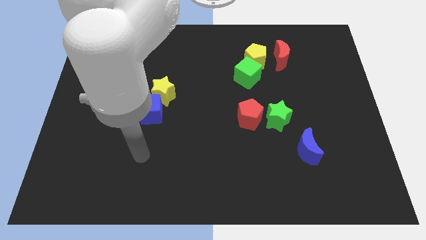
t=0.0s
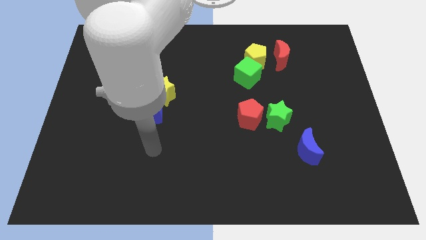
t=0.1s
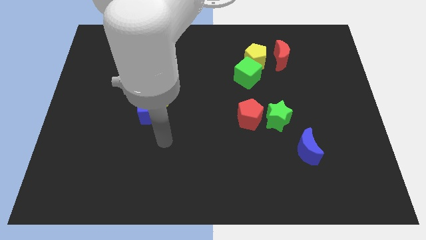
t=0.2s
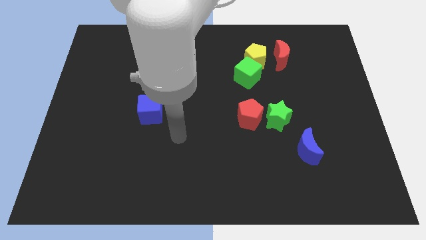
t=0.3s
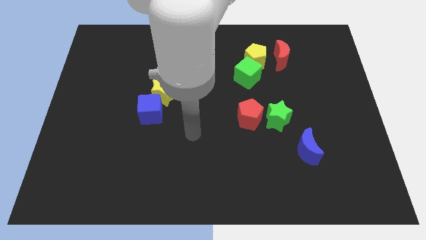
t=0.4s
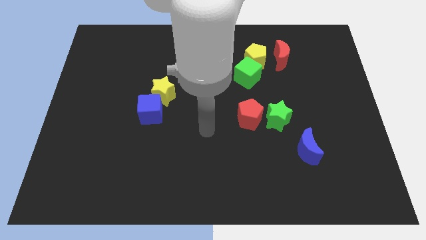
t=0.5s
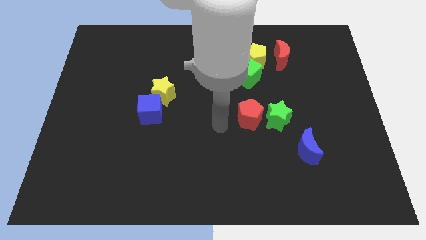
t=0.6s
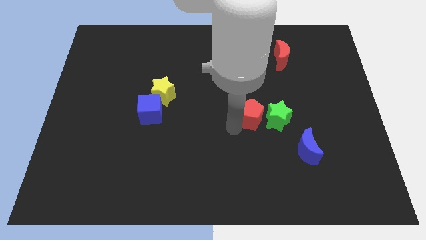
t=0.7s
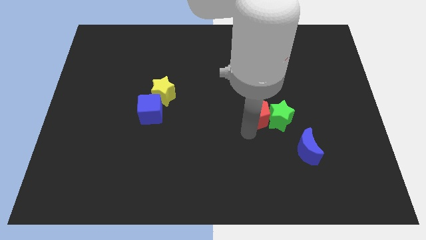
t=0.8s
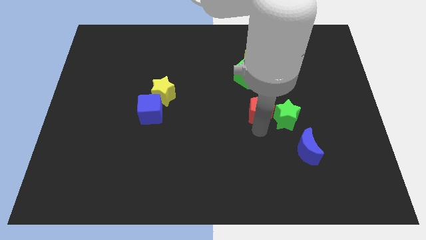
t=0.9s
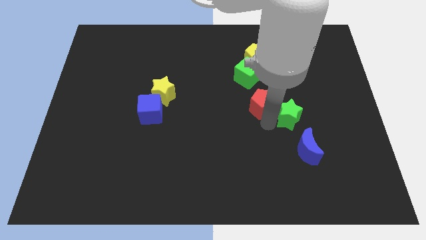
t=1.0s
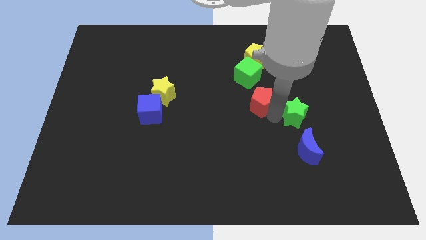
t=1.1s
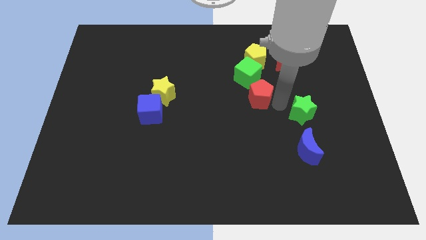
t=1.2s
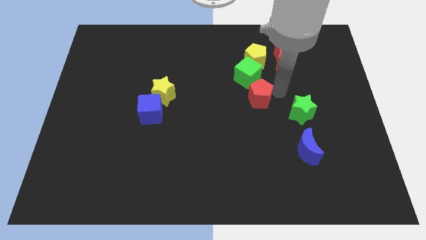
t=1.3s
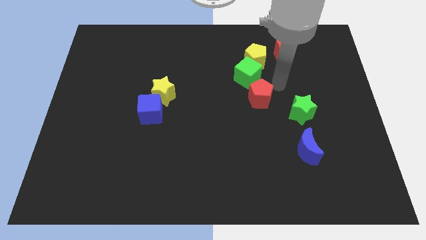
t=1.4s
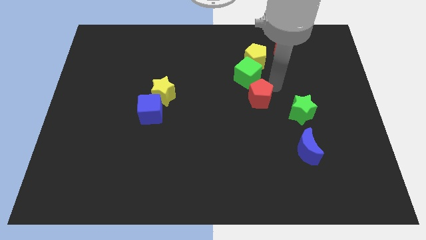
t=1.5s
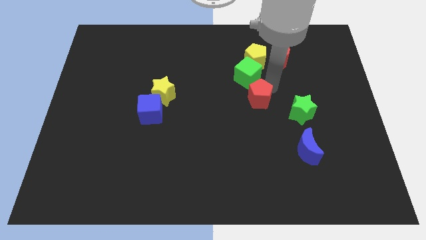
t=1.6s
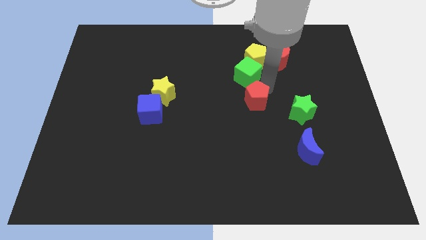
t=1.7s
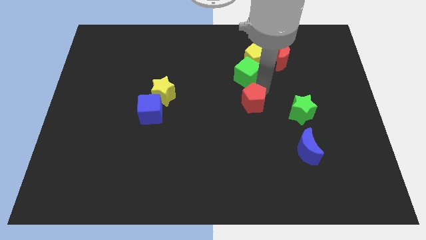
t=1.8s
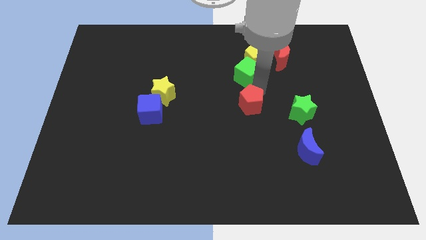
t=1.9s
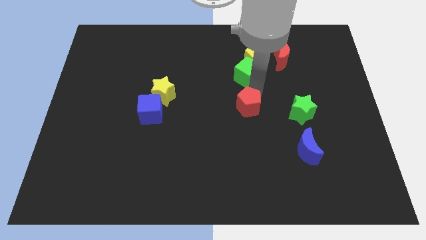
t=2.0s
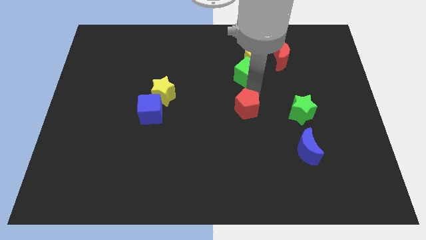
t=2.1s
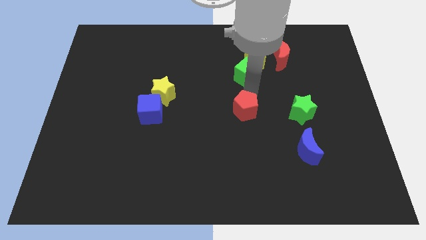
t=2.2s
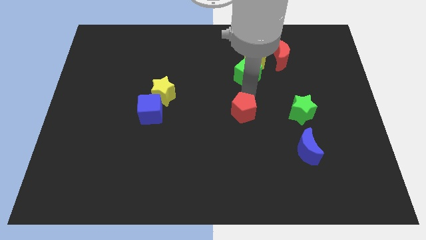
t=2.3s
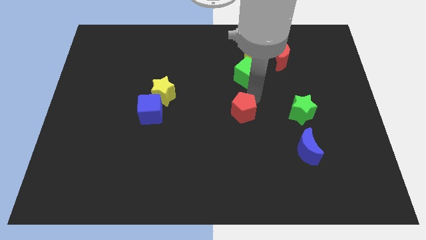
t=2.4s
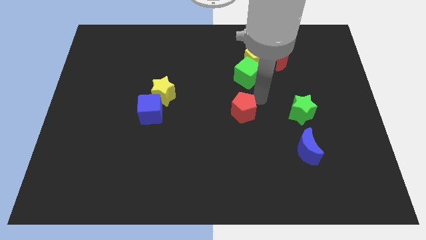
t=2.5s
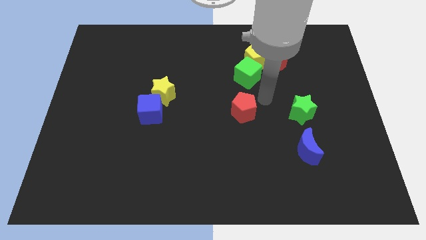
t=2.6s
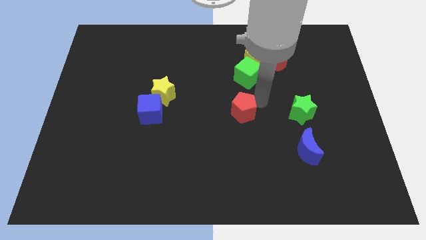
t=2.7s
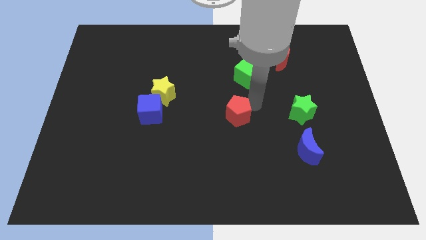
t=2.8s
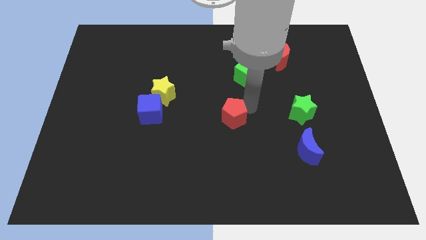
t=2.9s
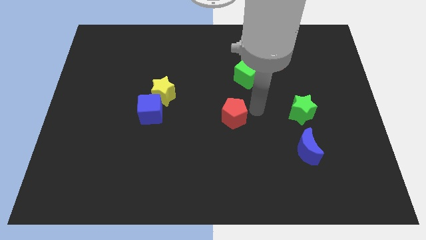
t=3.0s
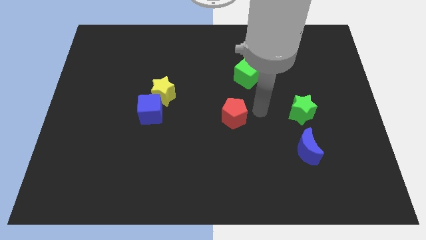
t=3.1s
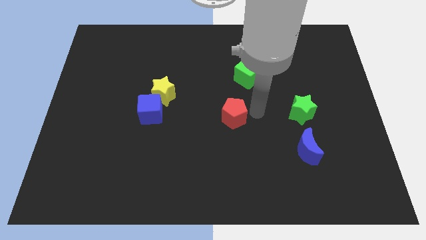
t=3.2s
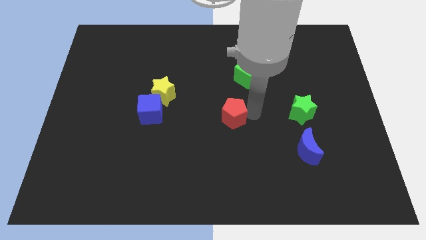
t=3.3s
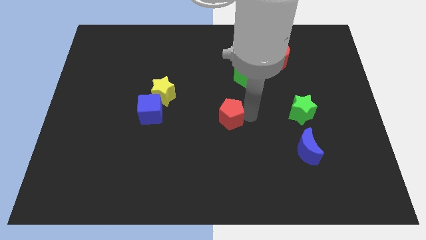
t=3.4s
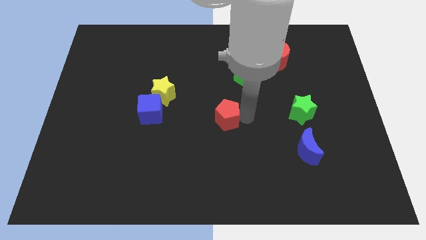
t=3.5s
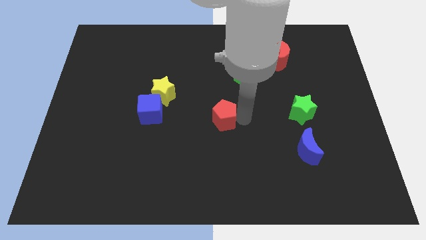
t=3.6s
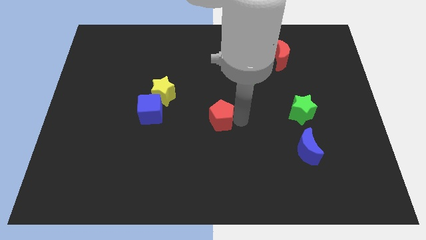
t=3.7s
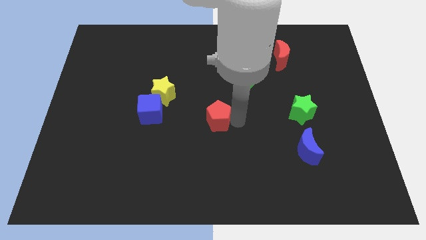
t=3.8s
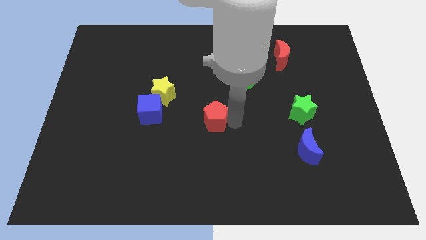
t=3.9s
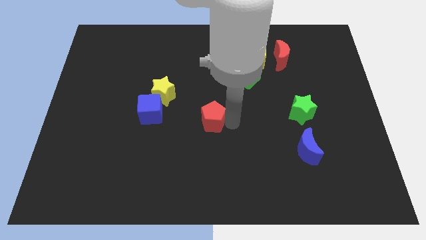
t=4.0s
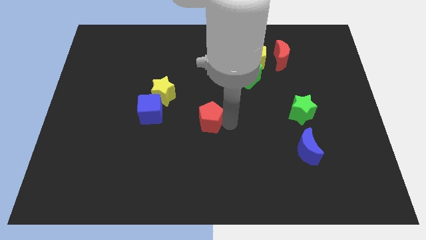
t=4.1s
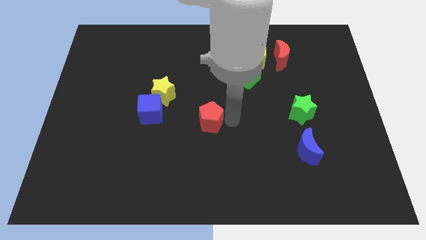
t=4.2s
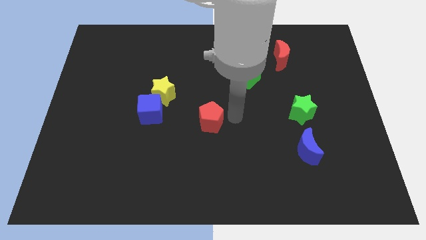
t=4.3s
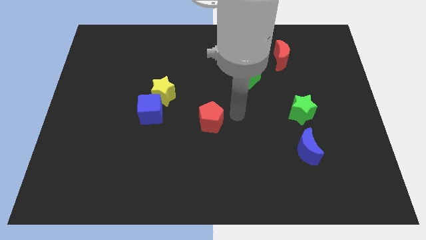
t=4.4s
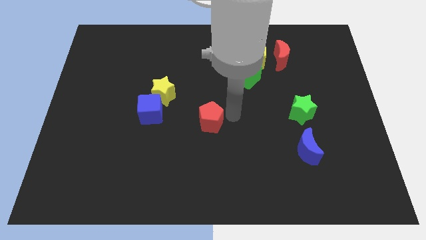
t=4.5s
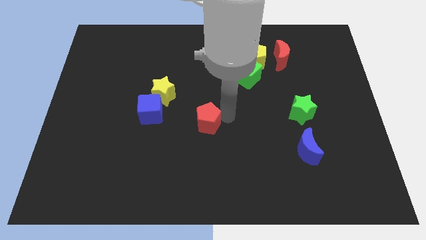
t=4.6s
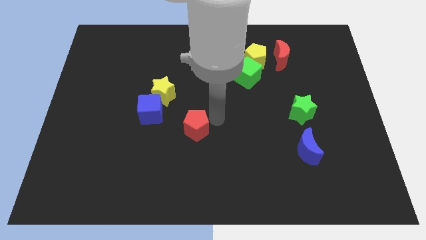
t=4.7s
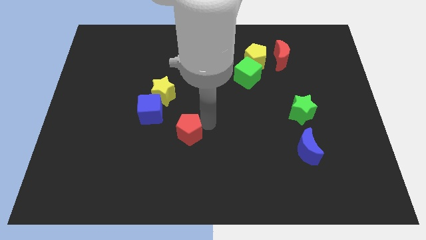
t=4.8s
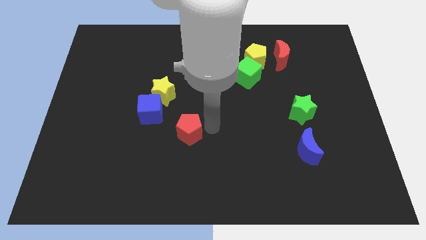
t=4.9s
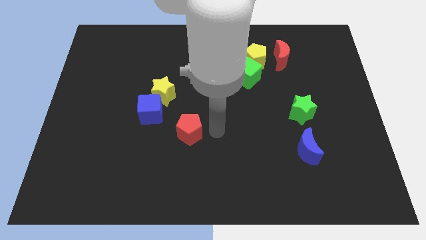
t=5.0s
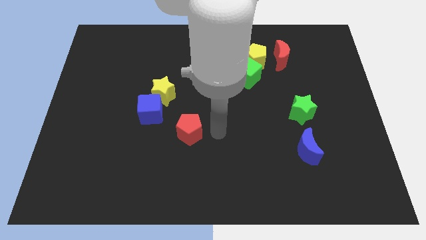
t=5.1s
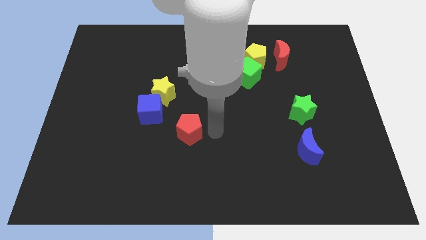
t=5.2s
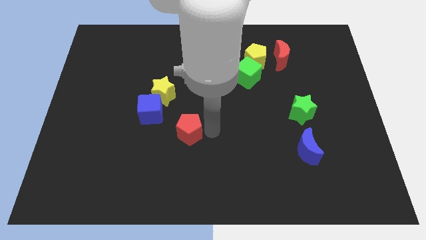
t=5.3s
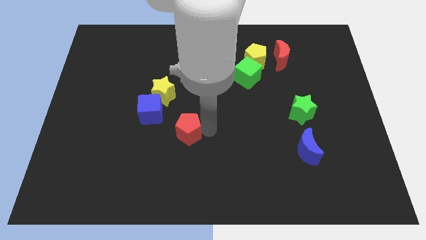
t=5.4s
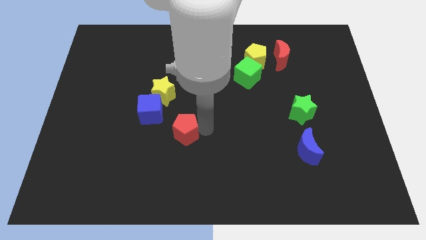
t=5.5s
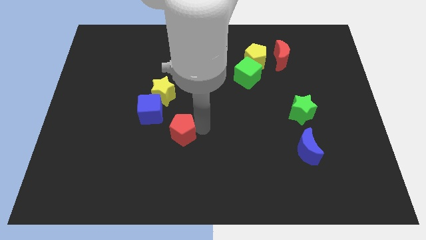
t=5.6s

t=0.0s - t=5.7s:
move the red pentagon to the bottom side of the yellow star
